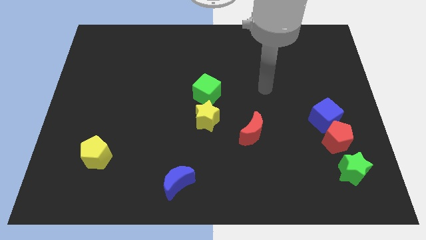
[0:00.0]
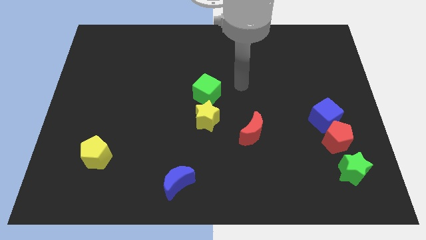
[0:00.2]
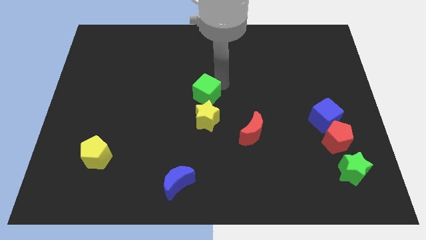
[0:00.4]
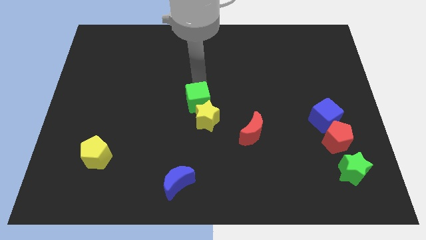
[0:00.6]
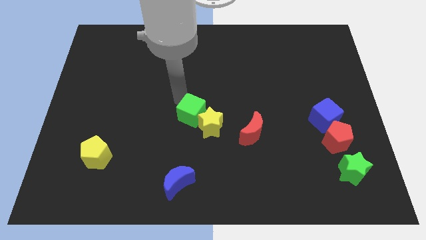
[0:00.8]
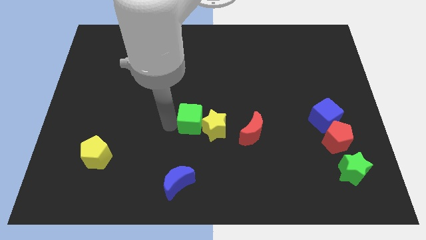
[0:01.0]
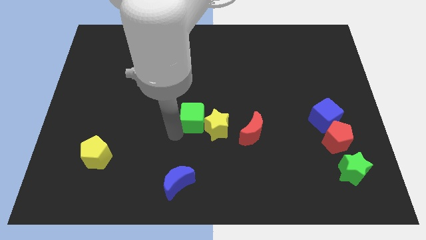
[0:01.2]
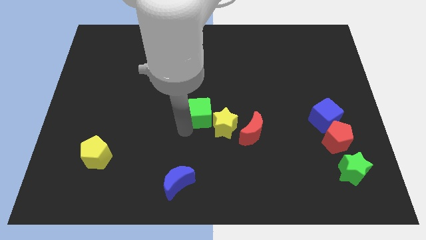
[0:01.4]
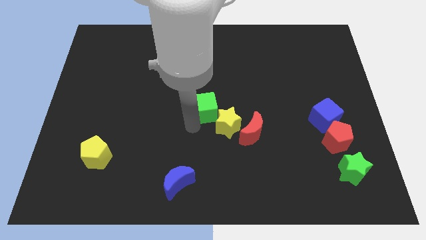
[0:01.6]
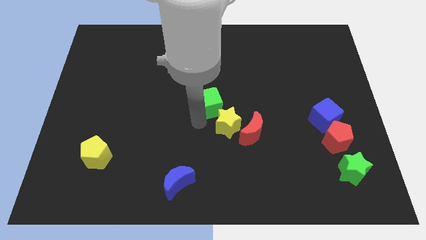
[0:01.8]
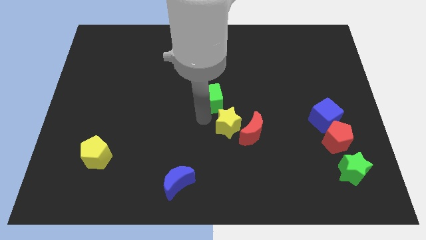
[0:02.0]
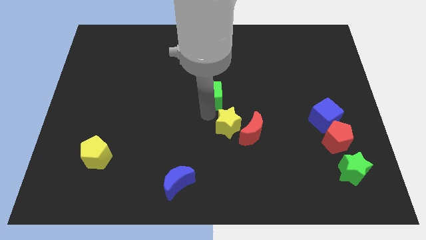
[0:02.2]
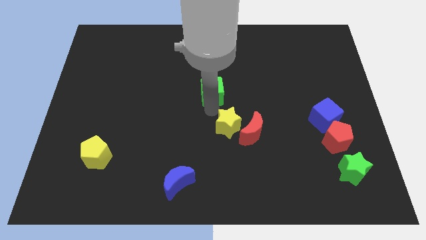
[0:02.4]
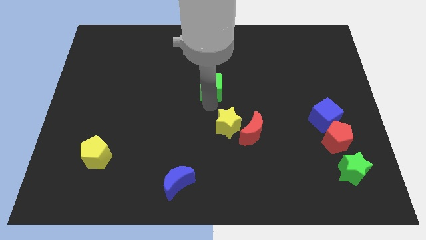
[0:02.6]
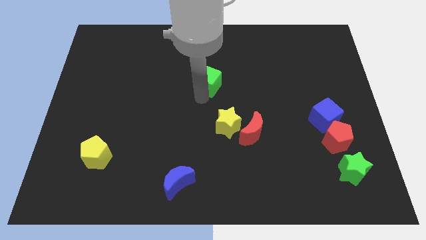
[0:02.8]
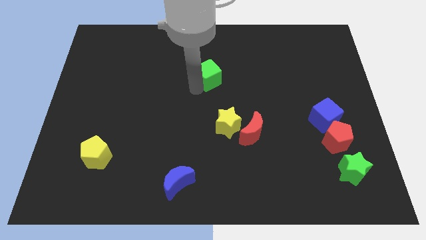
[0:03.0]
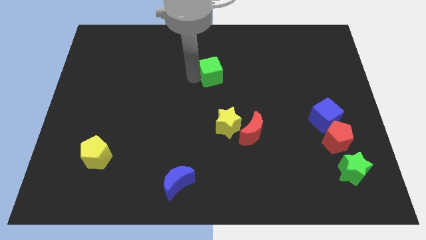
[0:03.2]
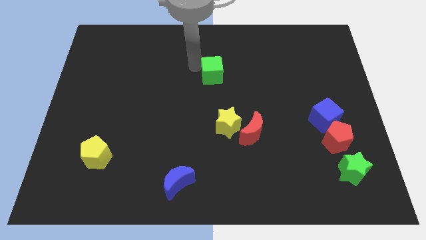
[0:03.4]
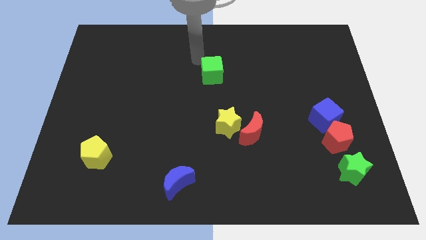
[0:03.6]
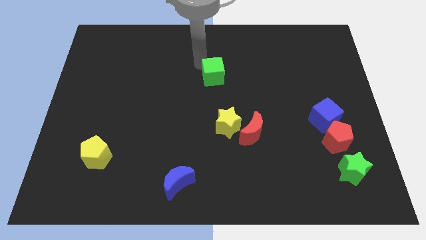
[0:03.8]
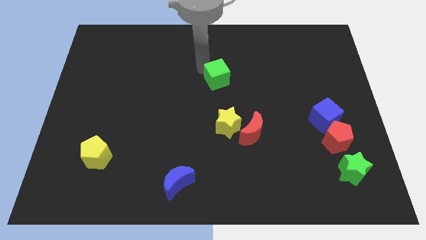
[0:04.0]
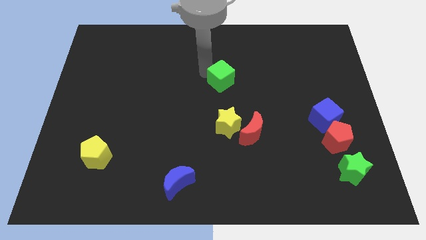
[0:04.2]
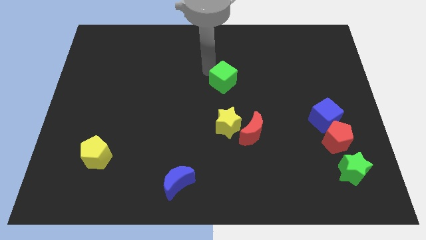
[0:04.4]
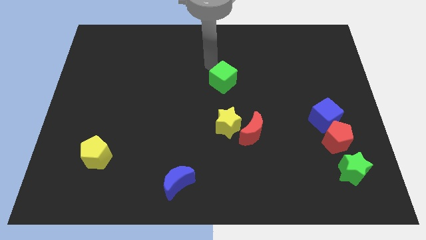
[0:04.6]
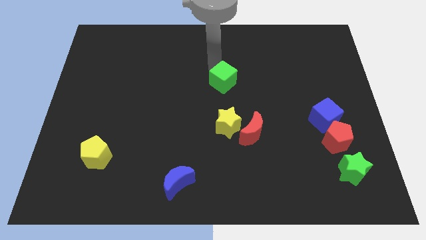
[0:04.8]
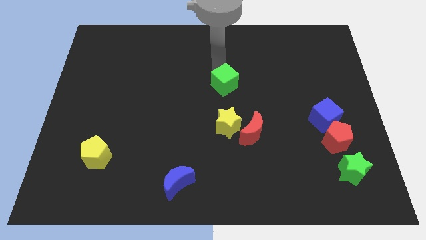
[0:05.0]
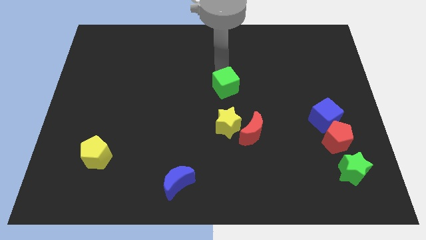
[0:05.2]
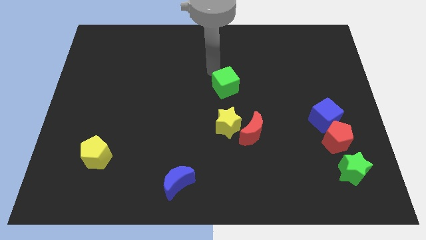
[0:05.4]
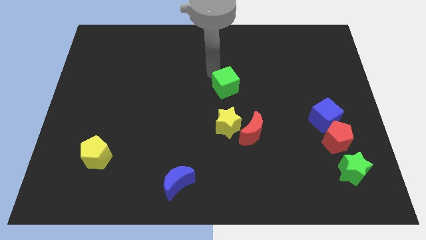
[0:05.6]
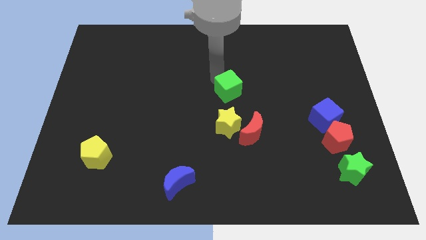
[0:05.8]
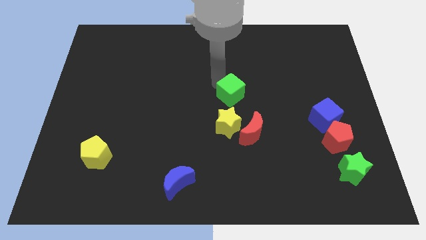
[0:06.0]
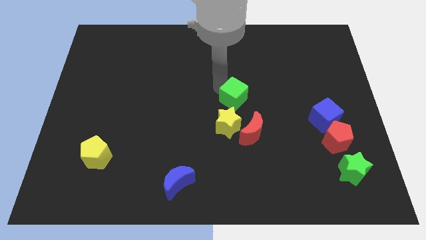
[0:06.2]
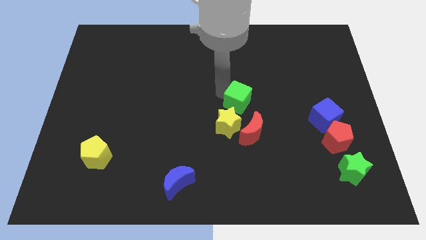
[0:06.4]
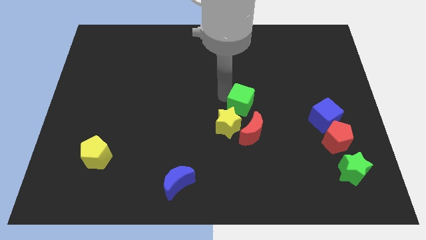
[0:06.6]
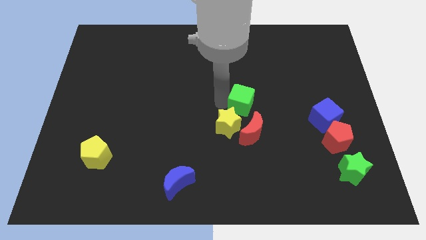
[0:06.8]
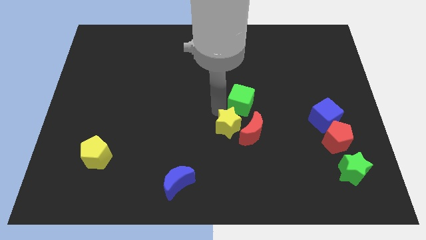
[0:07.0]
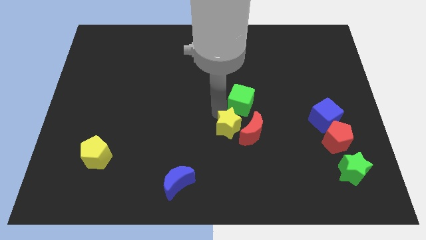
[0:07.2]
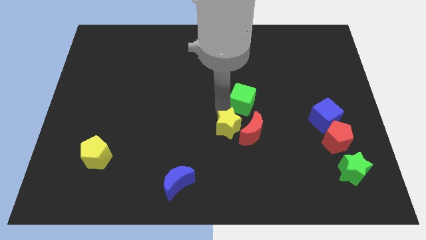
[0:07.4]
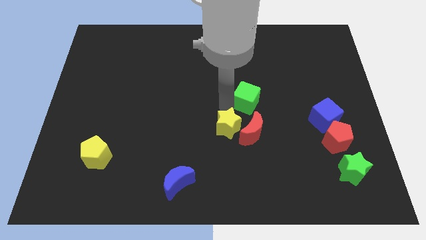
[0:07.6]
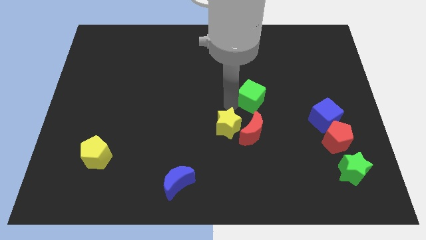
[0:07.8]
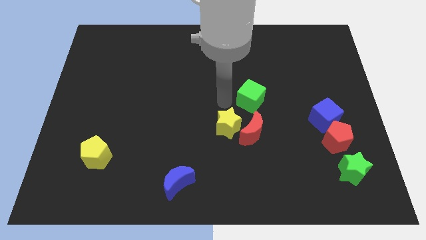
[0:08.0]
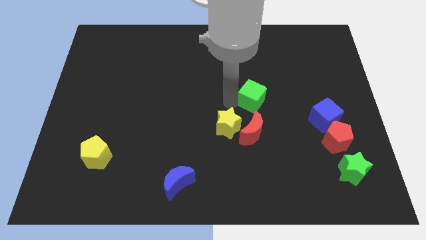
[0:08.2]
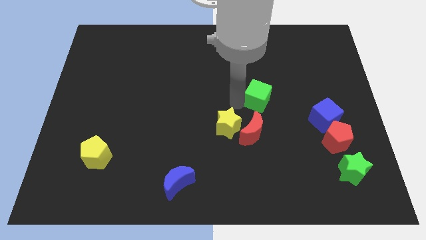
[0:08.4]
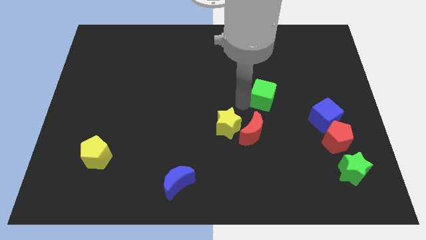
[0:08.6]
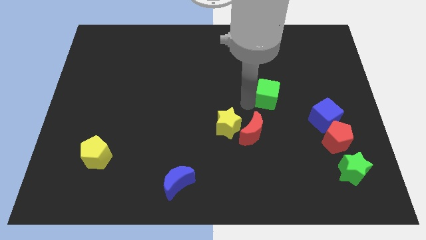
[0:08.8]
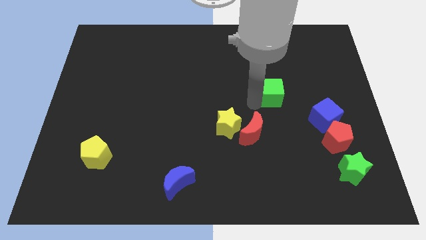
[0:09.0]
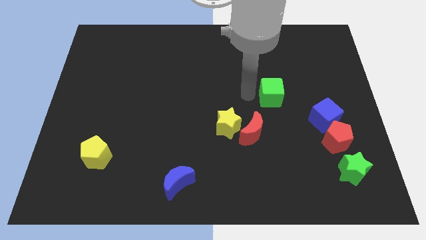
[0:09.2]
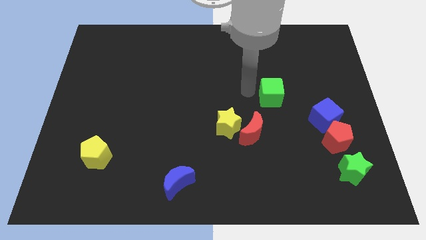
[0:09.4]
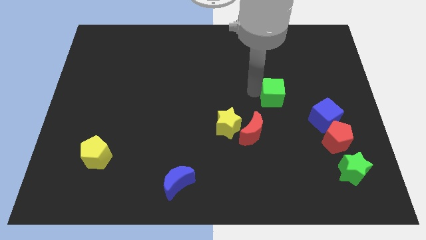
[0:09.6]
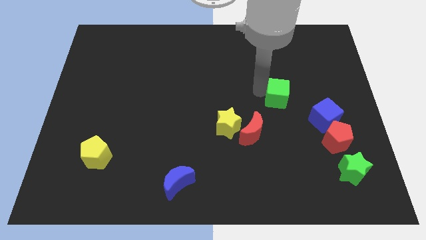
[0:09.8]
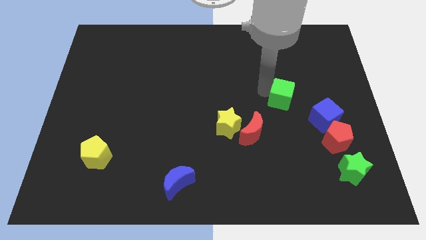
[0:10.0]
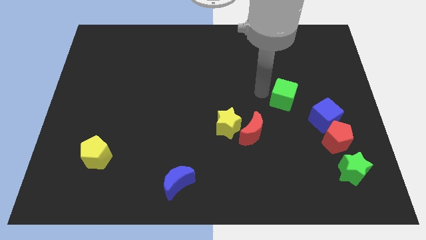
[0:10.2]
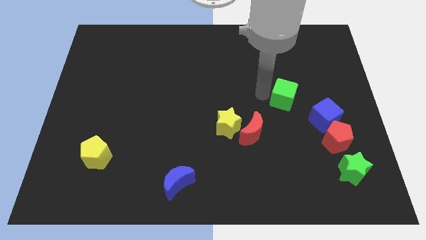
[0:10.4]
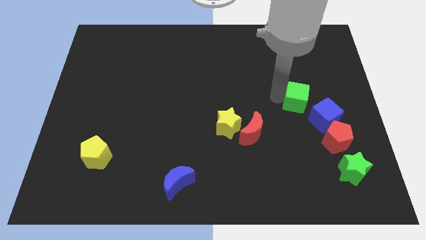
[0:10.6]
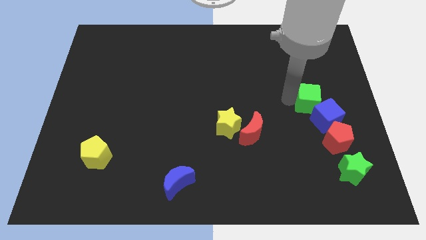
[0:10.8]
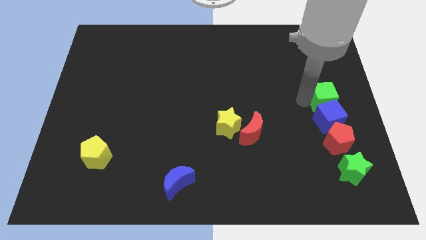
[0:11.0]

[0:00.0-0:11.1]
move the green cube to the right side

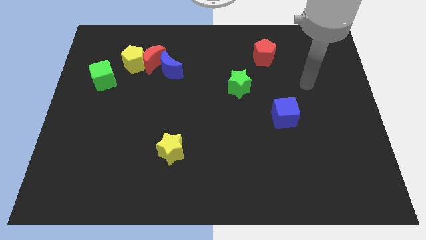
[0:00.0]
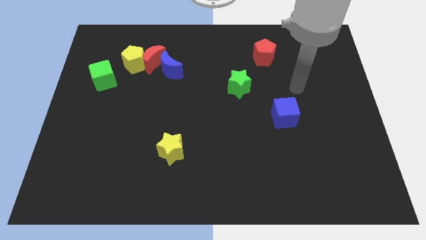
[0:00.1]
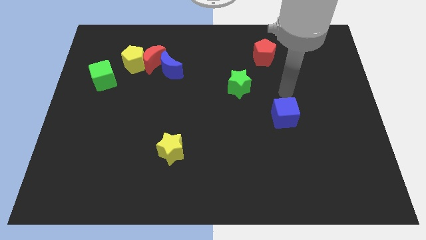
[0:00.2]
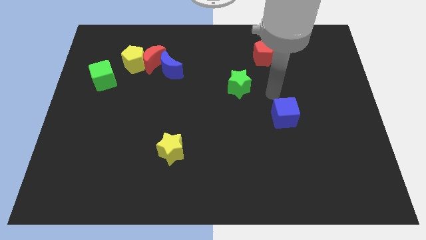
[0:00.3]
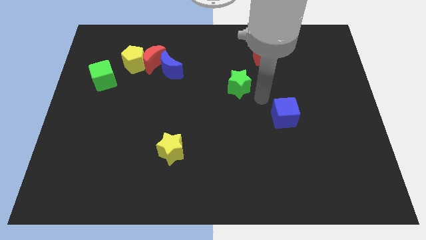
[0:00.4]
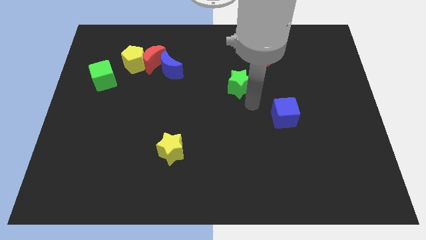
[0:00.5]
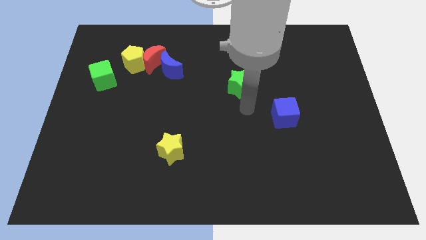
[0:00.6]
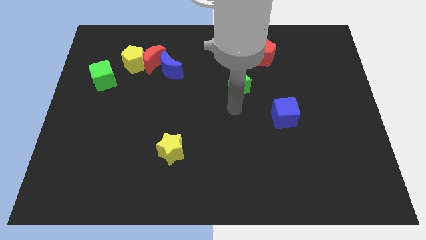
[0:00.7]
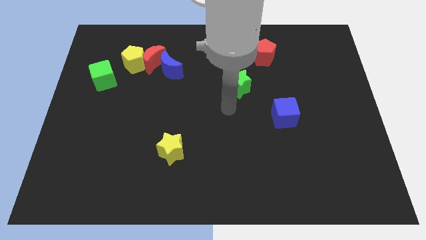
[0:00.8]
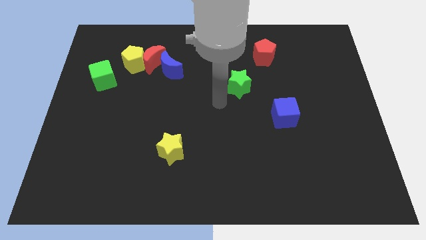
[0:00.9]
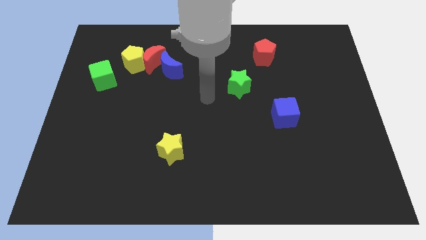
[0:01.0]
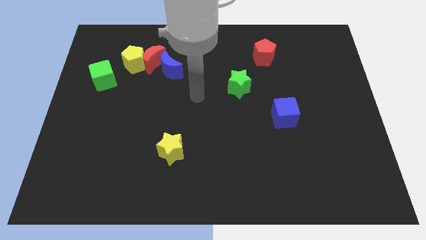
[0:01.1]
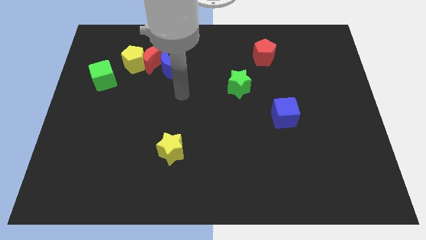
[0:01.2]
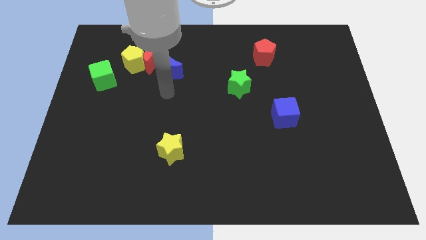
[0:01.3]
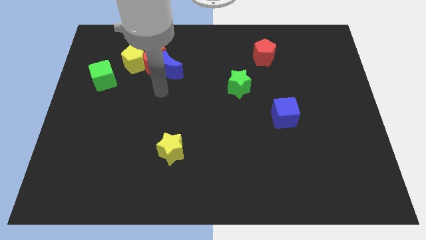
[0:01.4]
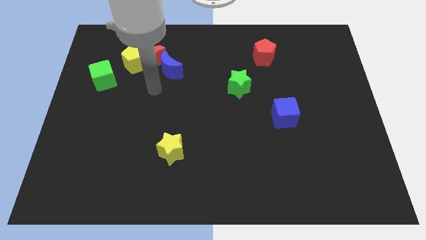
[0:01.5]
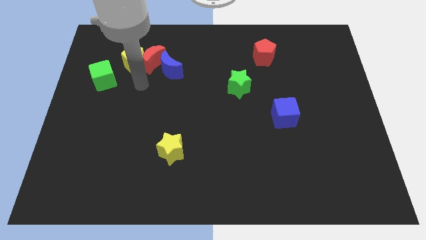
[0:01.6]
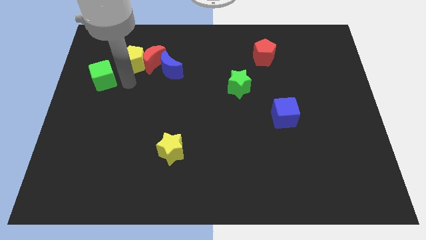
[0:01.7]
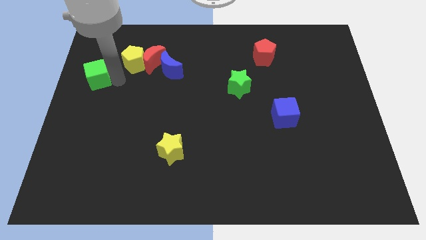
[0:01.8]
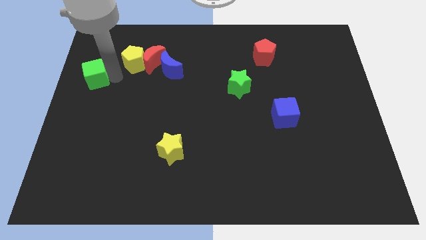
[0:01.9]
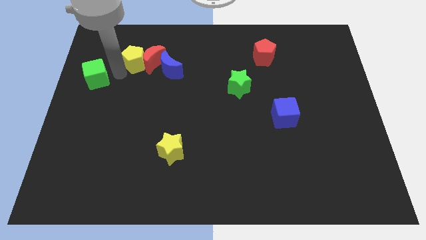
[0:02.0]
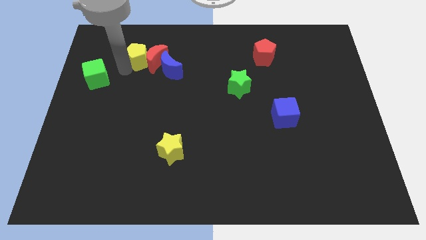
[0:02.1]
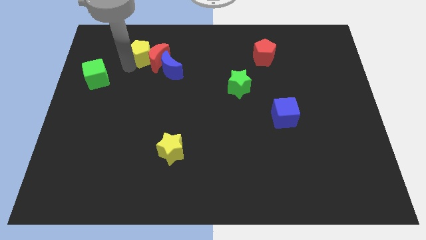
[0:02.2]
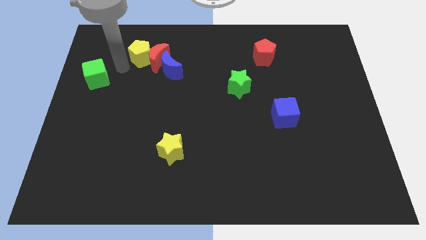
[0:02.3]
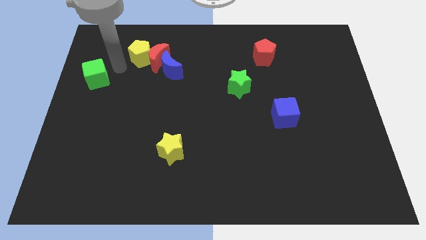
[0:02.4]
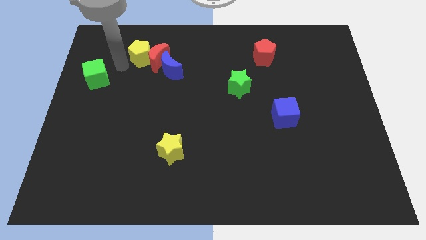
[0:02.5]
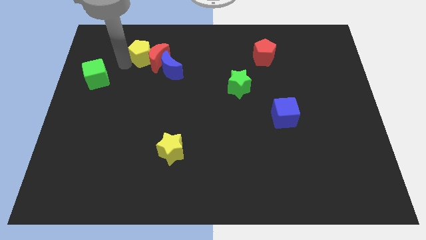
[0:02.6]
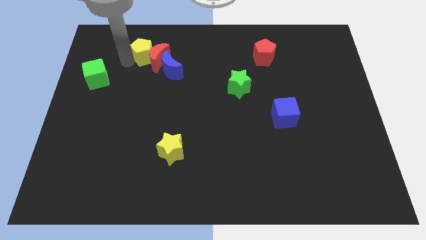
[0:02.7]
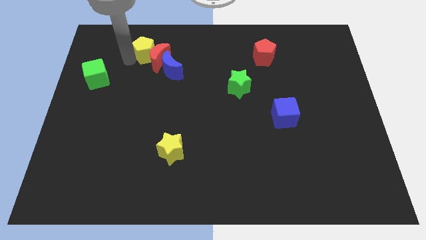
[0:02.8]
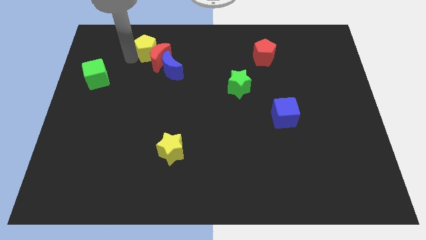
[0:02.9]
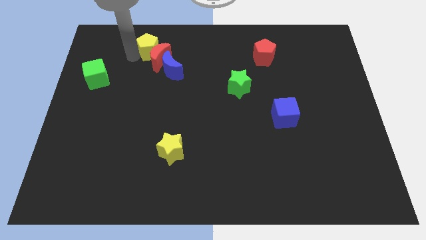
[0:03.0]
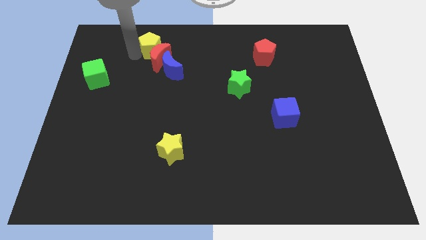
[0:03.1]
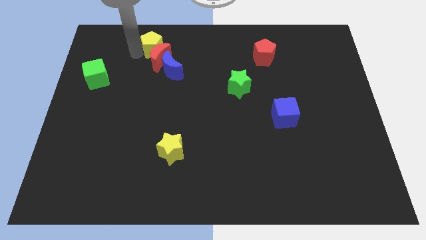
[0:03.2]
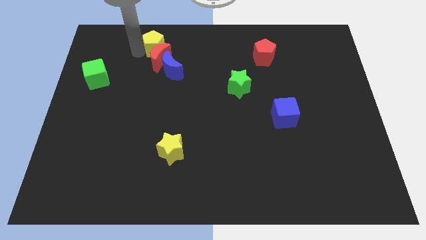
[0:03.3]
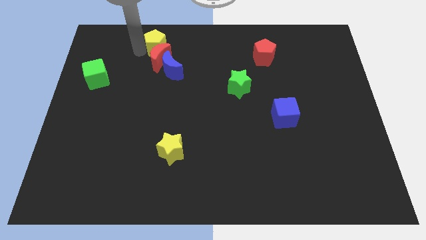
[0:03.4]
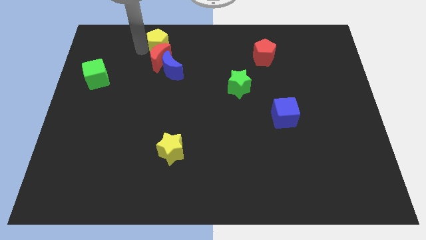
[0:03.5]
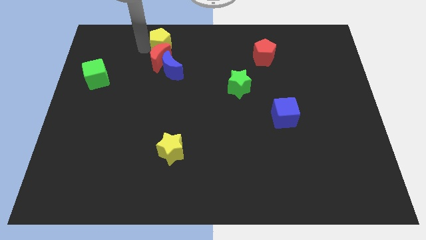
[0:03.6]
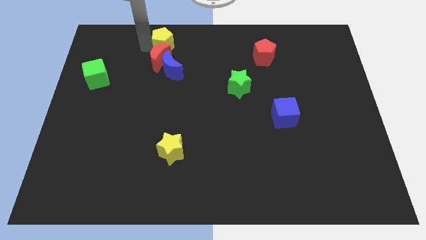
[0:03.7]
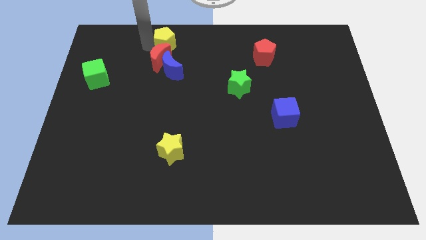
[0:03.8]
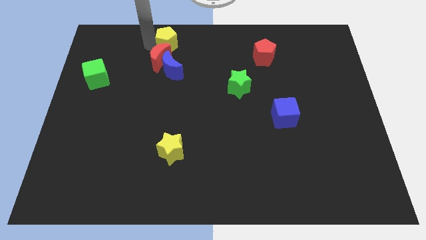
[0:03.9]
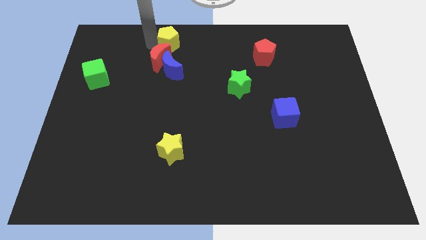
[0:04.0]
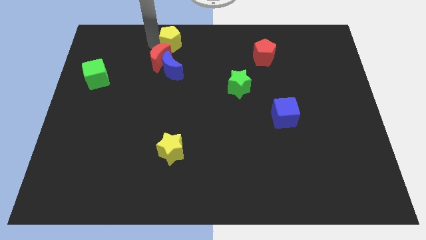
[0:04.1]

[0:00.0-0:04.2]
move the yellow pentagon to the top
